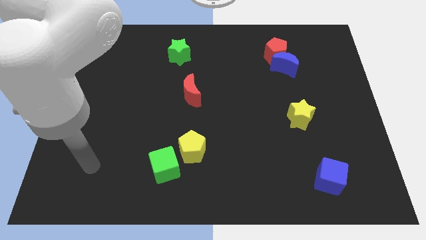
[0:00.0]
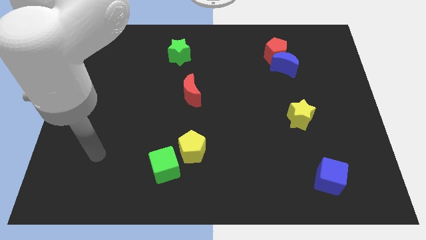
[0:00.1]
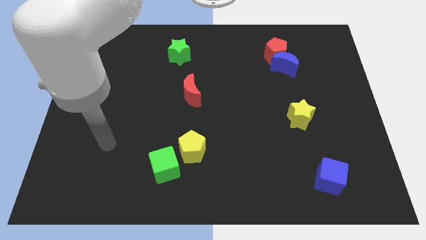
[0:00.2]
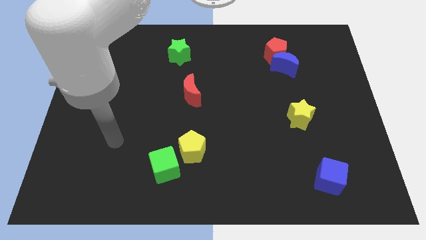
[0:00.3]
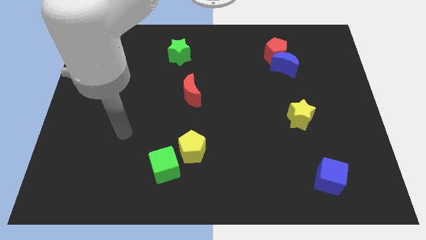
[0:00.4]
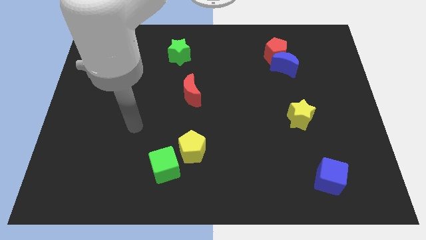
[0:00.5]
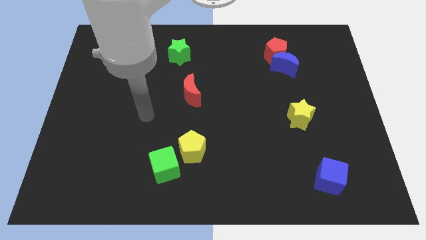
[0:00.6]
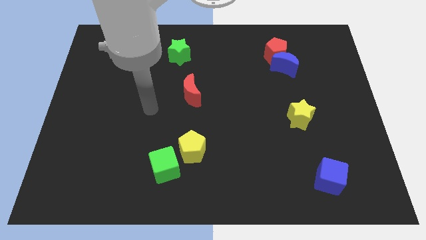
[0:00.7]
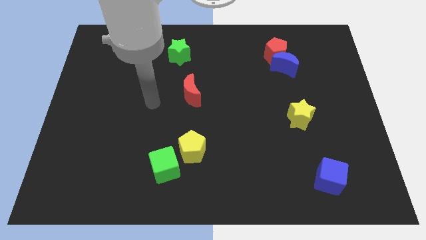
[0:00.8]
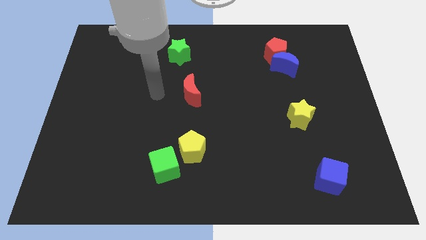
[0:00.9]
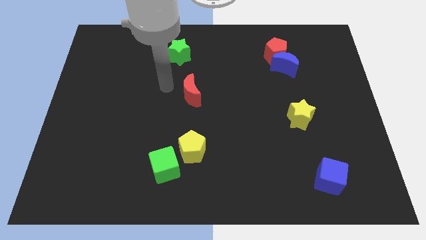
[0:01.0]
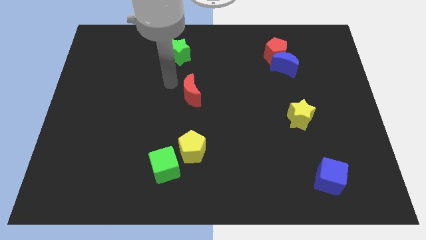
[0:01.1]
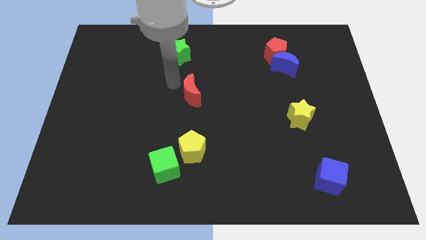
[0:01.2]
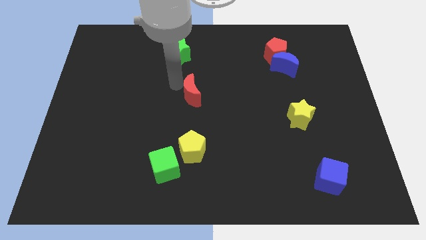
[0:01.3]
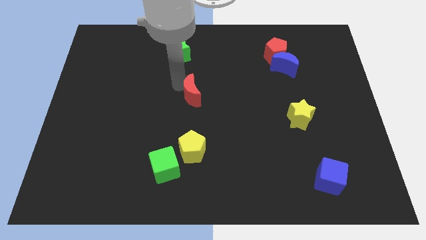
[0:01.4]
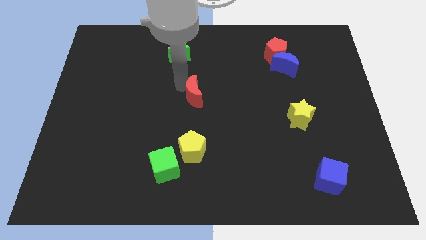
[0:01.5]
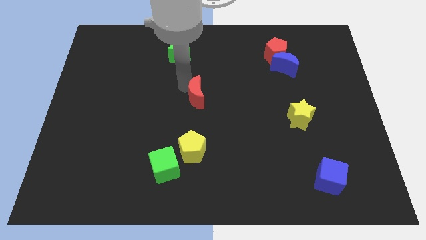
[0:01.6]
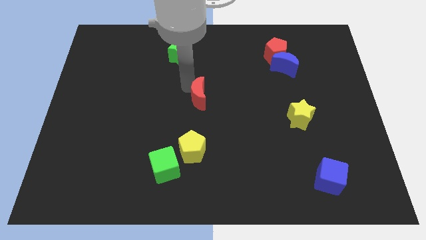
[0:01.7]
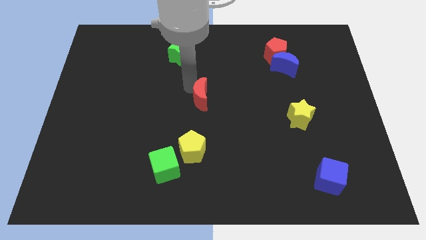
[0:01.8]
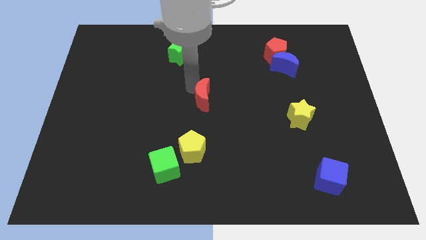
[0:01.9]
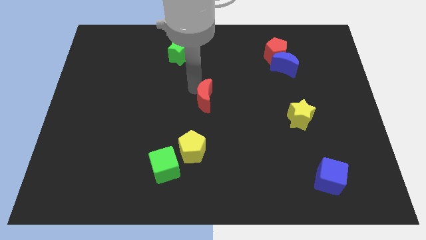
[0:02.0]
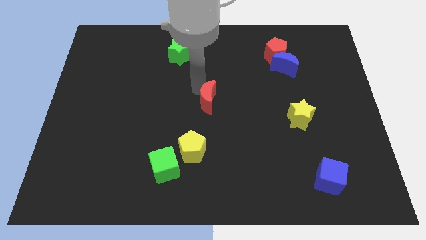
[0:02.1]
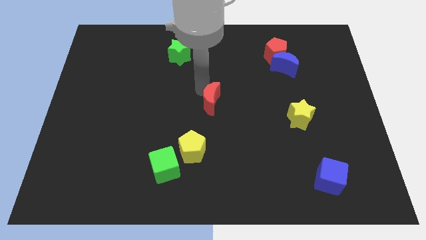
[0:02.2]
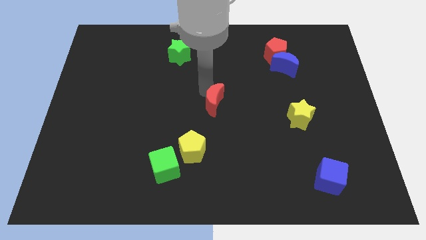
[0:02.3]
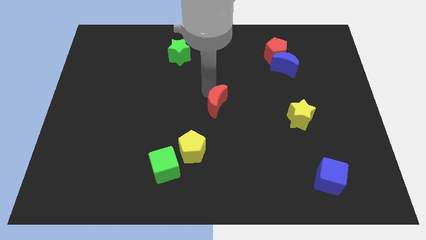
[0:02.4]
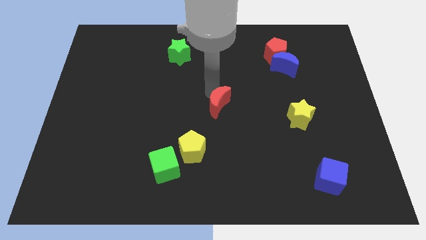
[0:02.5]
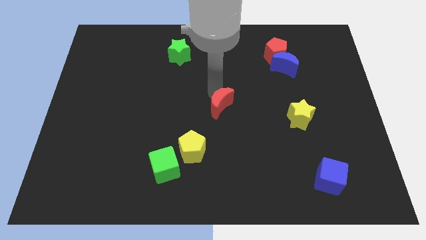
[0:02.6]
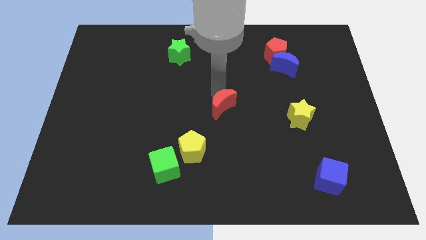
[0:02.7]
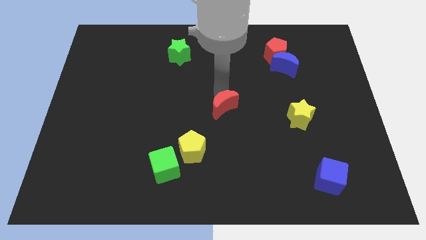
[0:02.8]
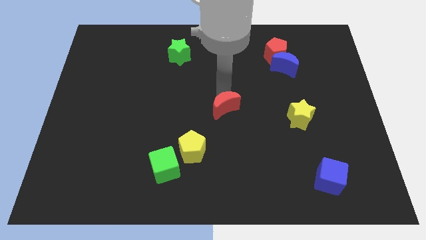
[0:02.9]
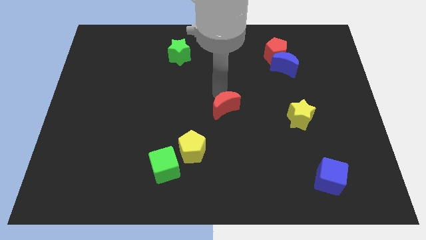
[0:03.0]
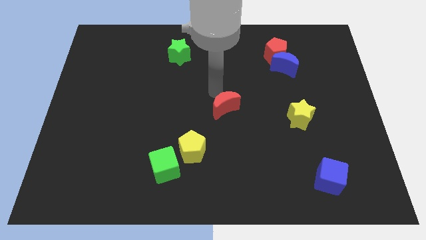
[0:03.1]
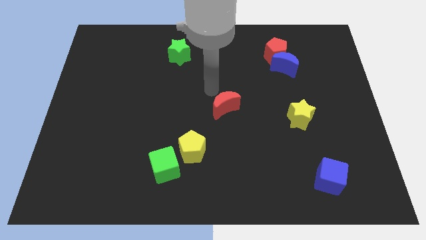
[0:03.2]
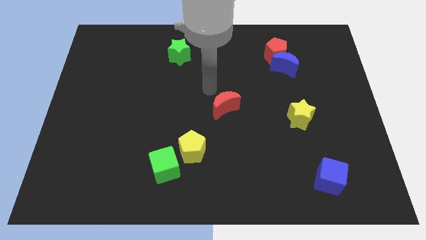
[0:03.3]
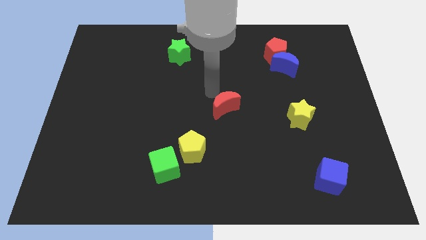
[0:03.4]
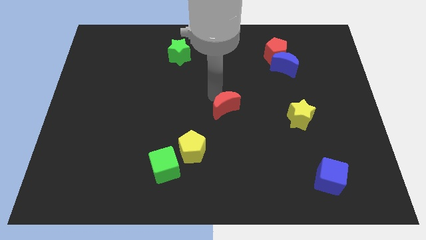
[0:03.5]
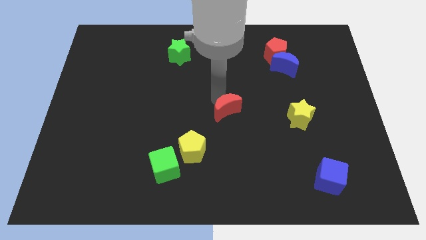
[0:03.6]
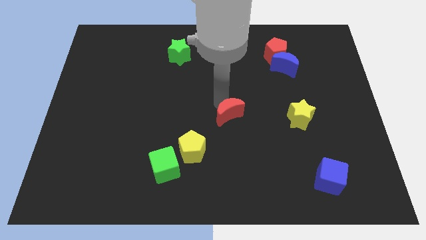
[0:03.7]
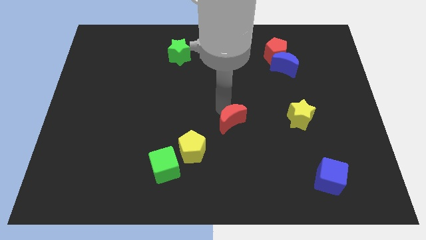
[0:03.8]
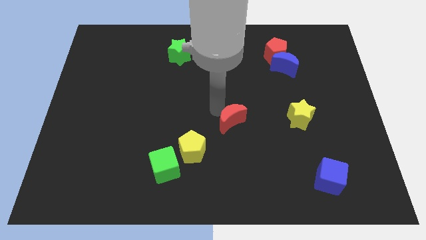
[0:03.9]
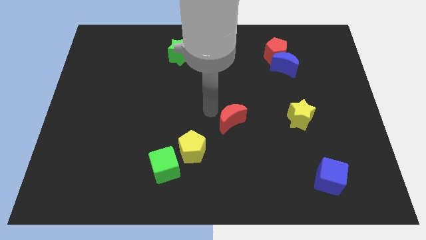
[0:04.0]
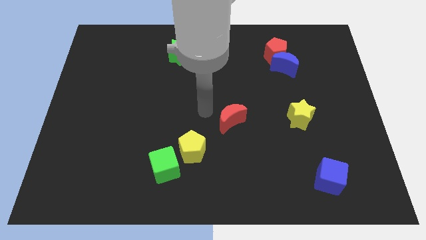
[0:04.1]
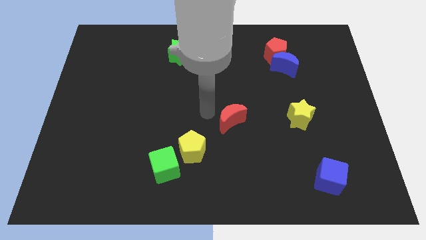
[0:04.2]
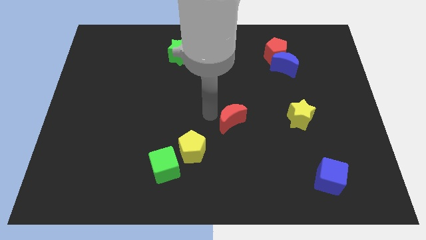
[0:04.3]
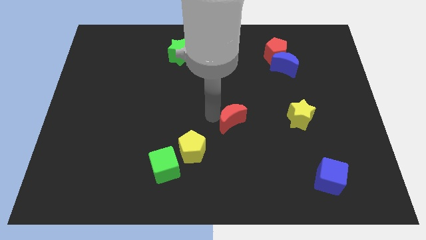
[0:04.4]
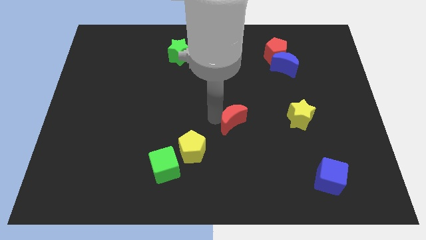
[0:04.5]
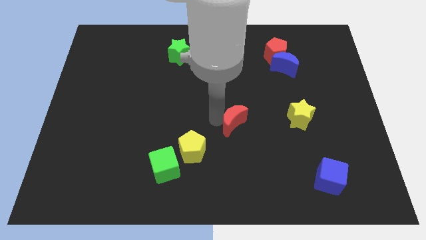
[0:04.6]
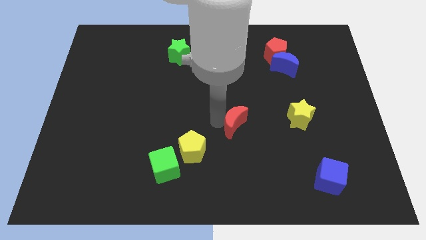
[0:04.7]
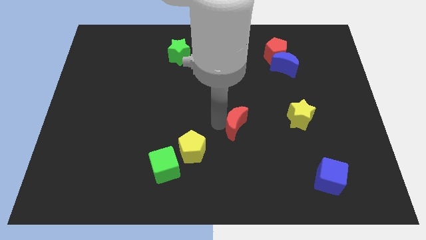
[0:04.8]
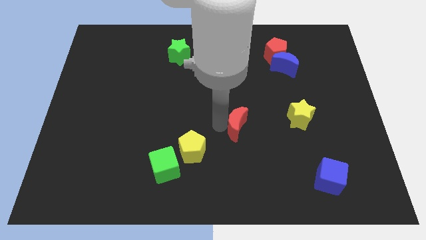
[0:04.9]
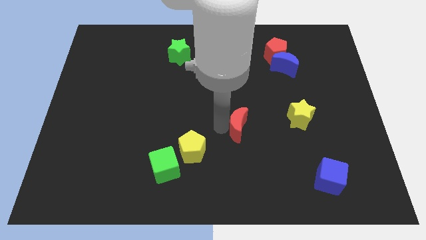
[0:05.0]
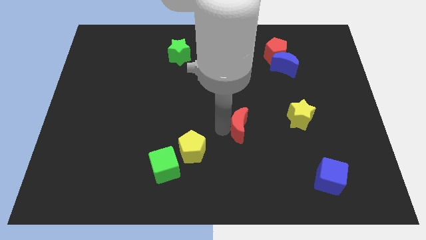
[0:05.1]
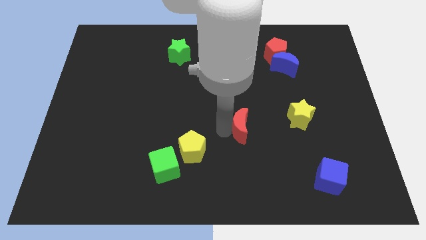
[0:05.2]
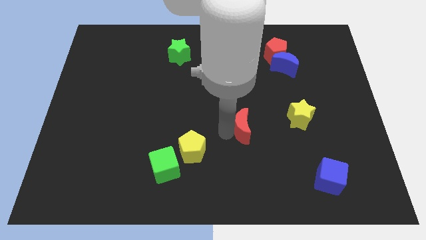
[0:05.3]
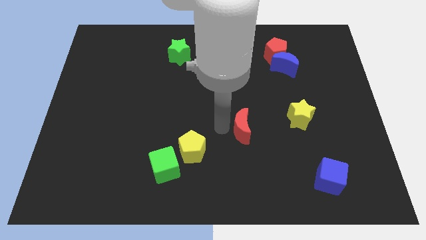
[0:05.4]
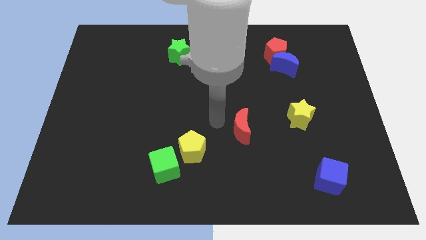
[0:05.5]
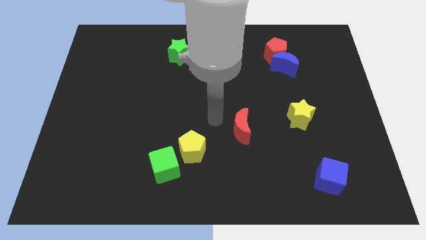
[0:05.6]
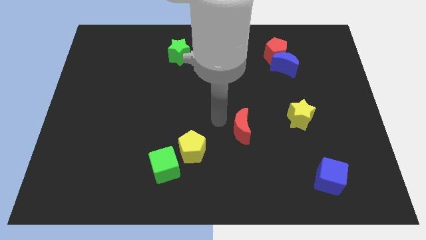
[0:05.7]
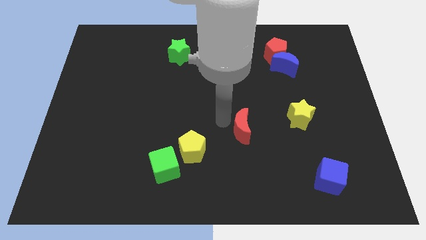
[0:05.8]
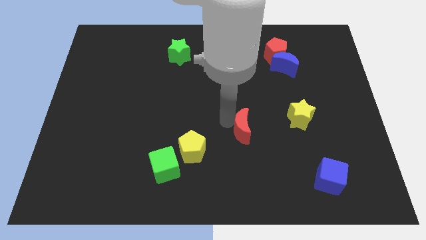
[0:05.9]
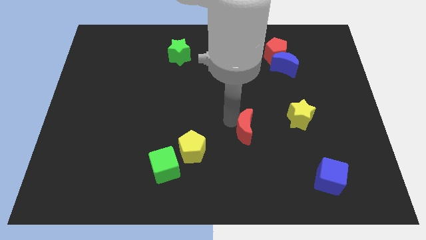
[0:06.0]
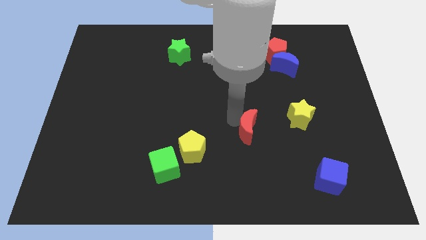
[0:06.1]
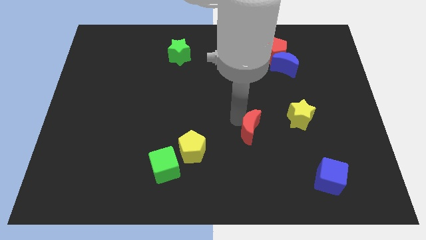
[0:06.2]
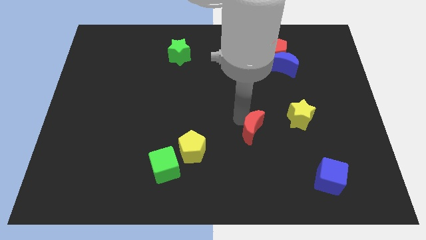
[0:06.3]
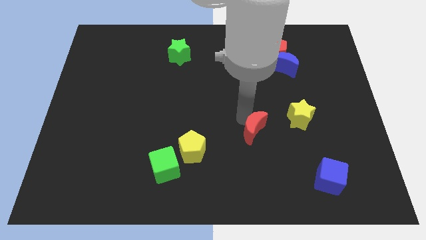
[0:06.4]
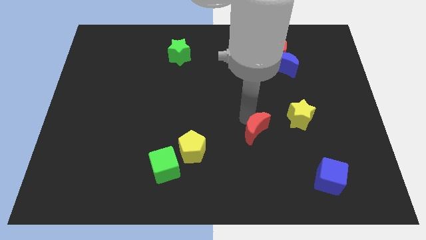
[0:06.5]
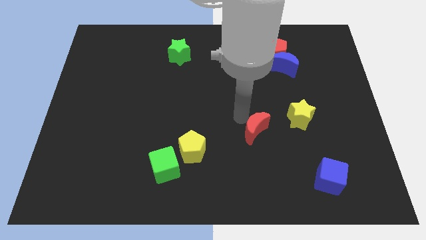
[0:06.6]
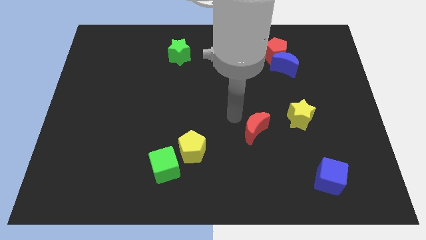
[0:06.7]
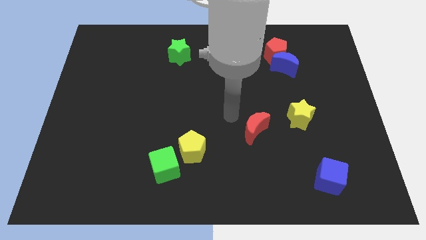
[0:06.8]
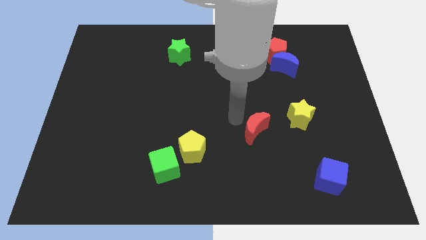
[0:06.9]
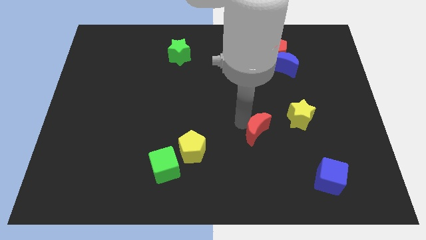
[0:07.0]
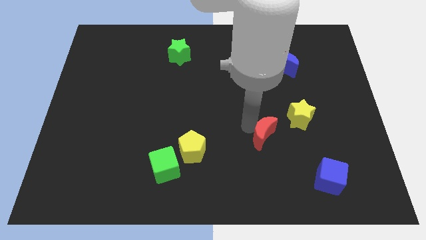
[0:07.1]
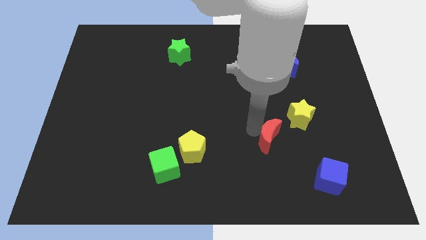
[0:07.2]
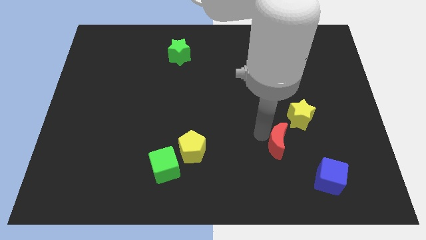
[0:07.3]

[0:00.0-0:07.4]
move the red moon to the top left of the blue cube
